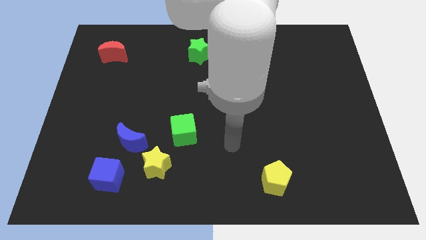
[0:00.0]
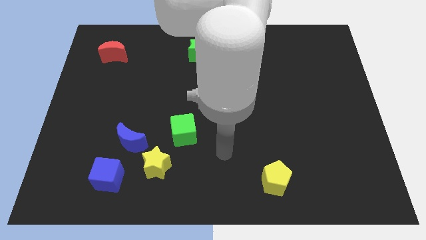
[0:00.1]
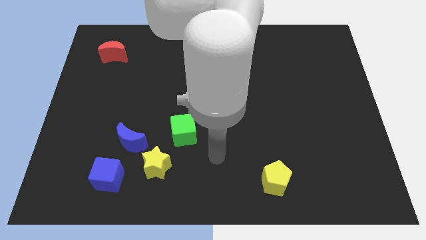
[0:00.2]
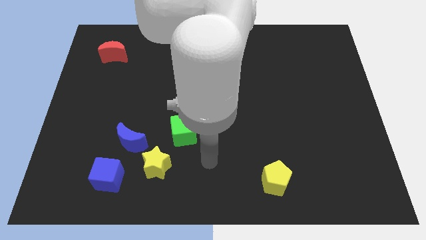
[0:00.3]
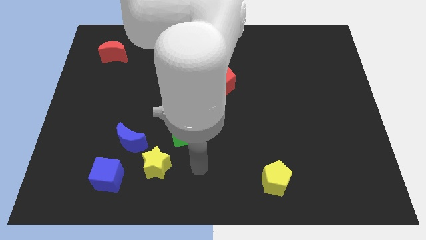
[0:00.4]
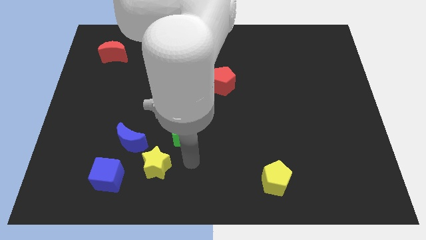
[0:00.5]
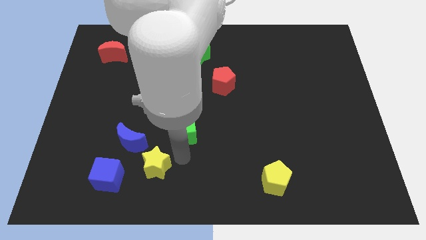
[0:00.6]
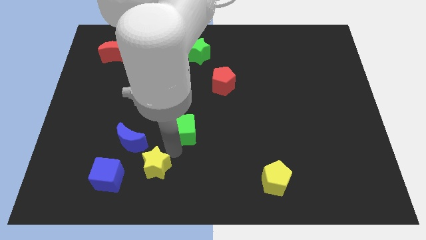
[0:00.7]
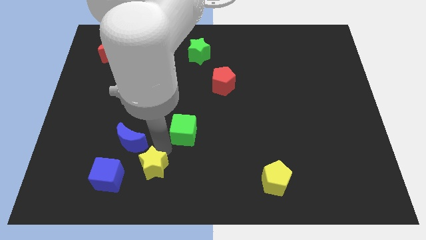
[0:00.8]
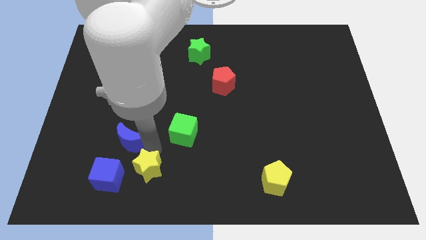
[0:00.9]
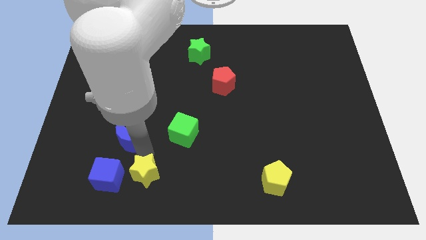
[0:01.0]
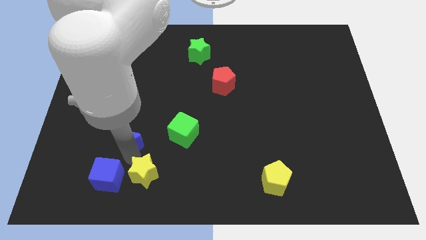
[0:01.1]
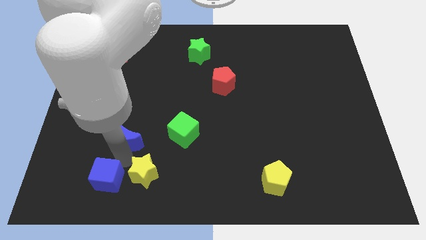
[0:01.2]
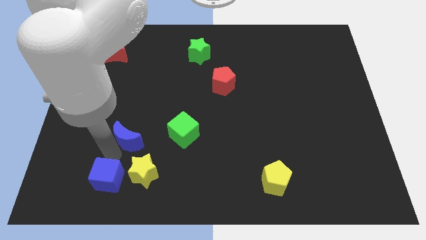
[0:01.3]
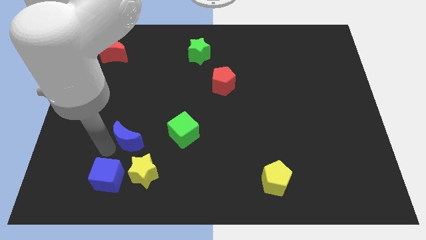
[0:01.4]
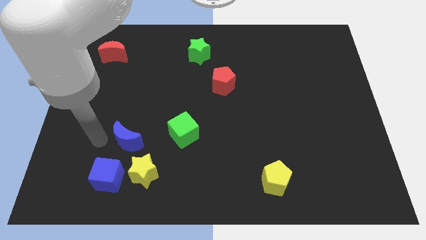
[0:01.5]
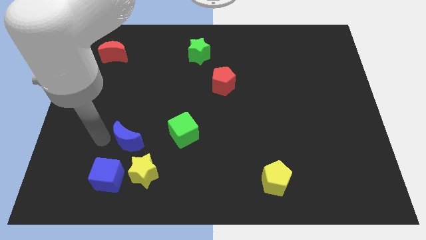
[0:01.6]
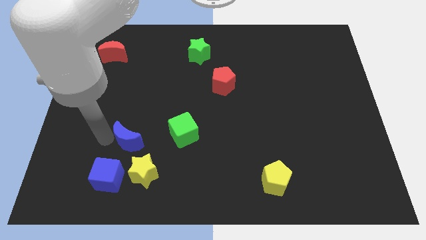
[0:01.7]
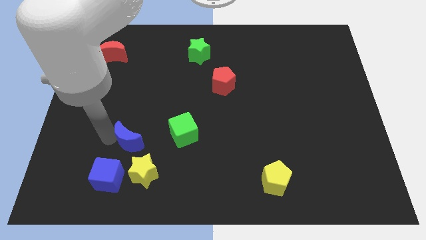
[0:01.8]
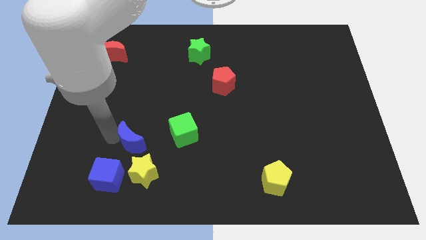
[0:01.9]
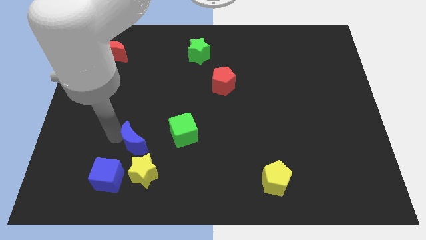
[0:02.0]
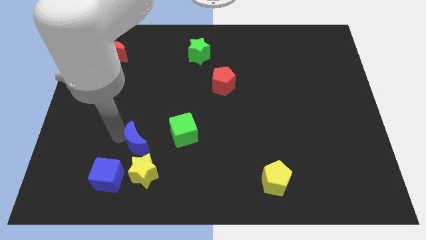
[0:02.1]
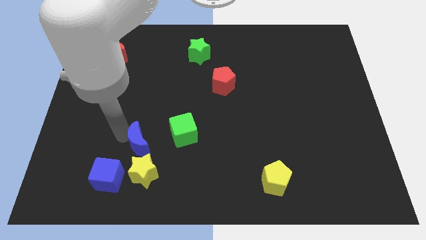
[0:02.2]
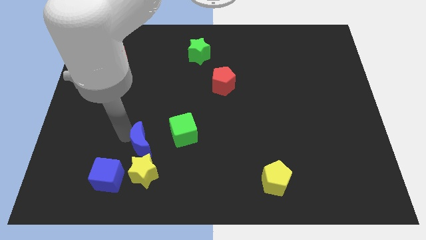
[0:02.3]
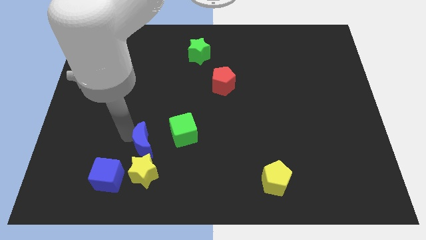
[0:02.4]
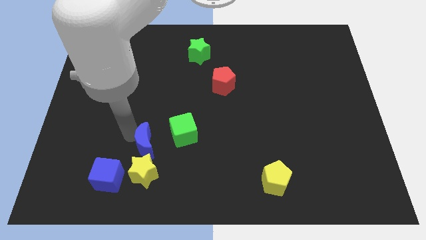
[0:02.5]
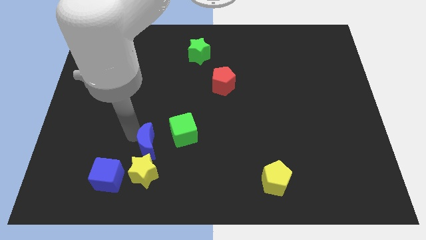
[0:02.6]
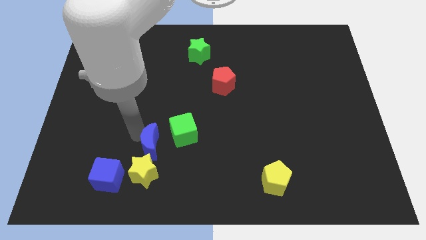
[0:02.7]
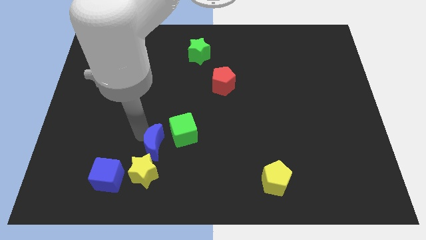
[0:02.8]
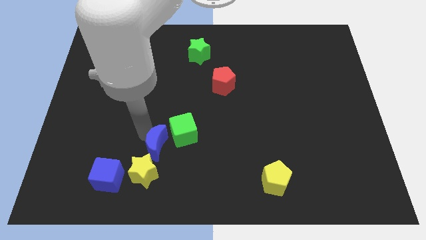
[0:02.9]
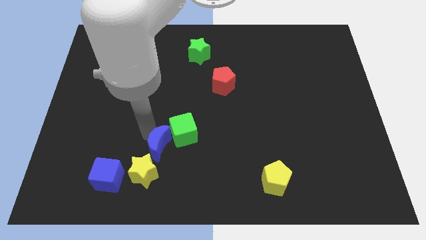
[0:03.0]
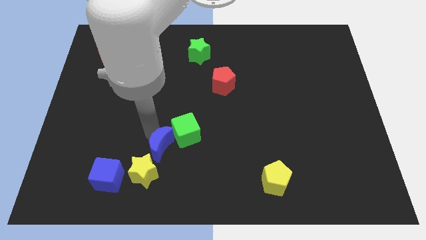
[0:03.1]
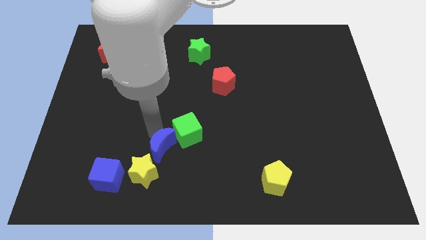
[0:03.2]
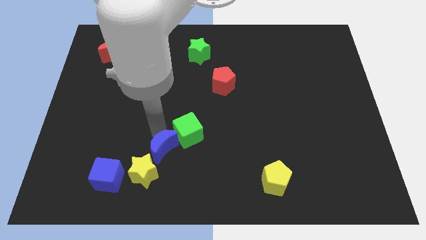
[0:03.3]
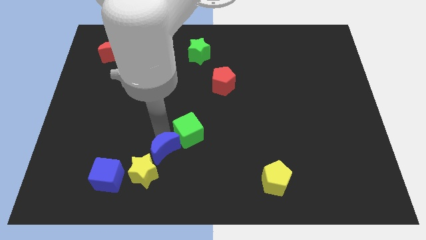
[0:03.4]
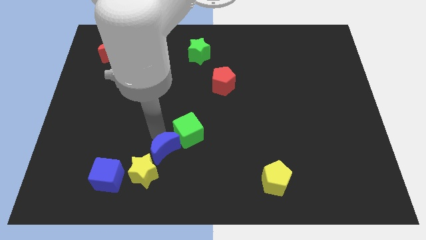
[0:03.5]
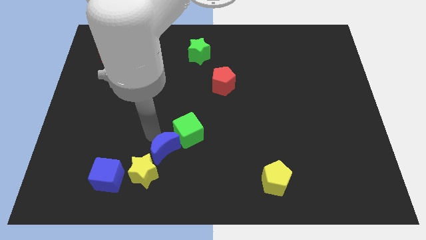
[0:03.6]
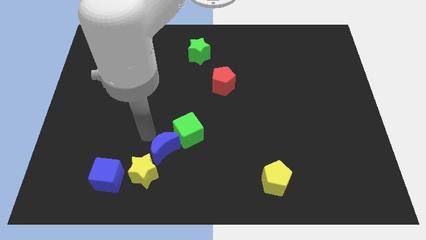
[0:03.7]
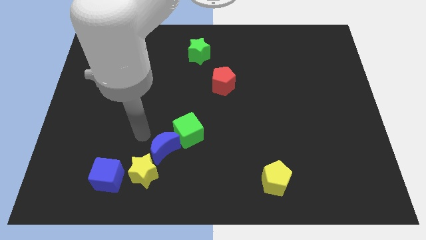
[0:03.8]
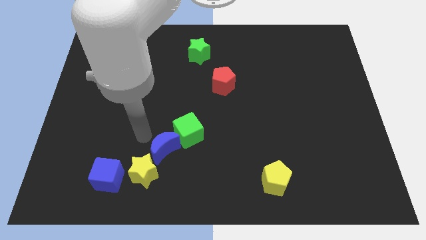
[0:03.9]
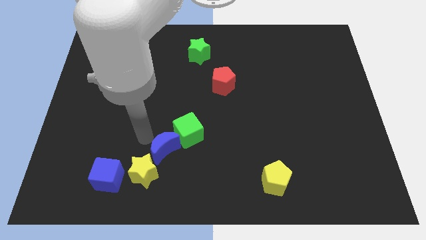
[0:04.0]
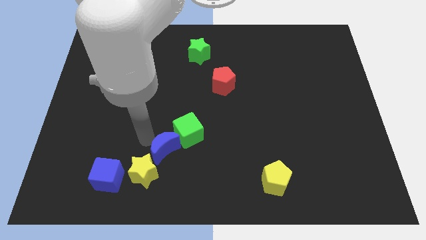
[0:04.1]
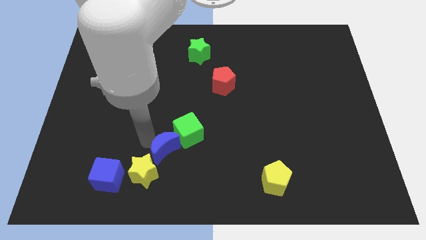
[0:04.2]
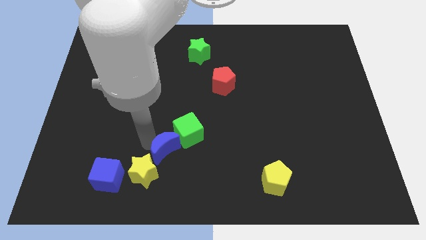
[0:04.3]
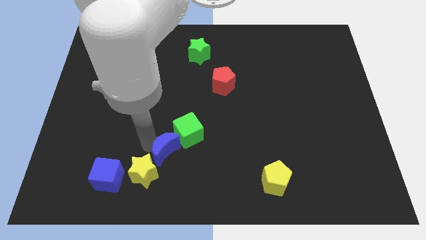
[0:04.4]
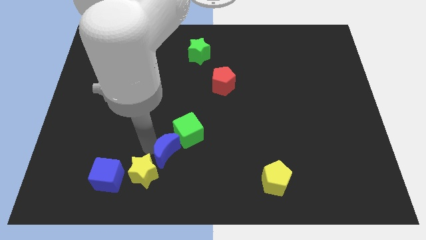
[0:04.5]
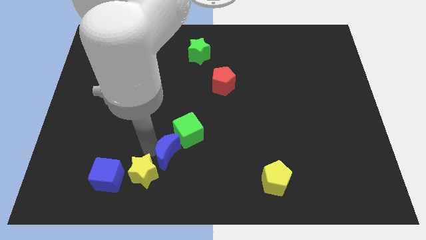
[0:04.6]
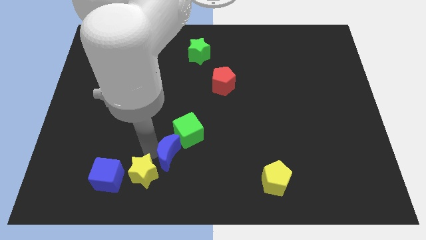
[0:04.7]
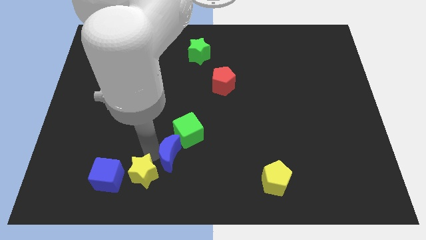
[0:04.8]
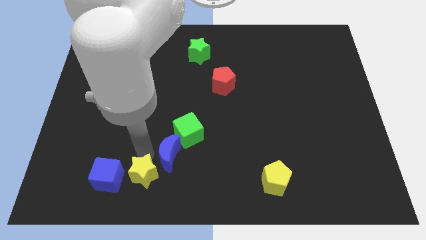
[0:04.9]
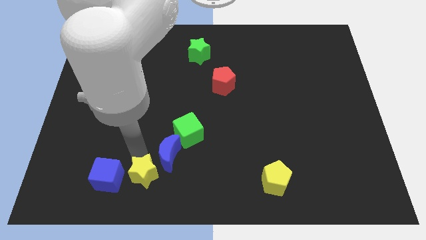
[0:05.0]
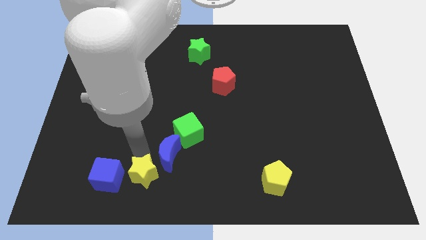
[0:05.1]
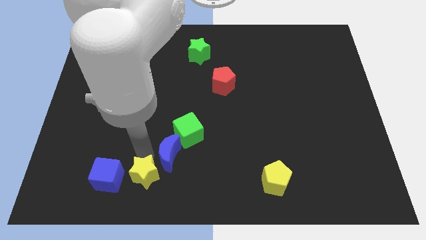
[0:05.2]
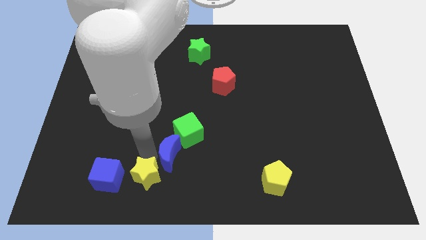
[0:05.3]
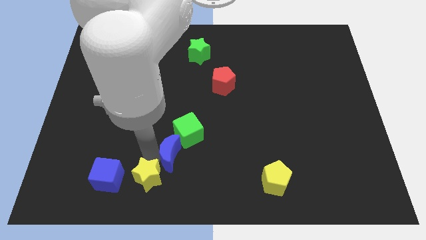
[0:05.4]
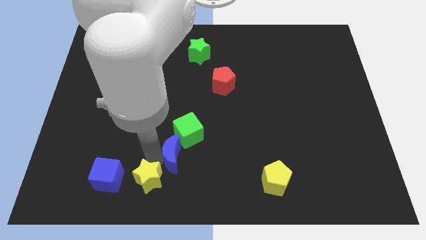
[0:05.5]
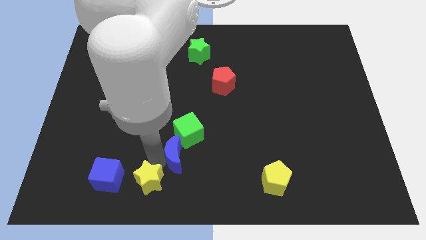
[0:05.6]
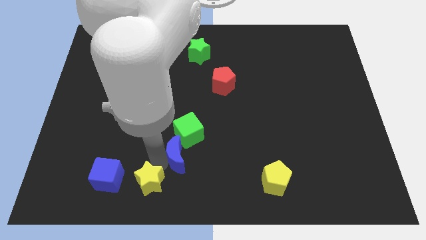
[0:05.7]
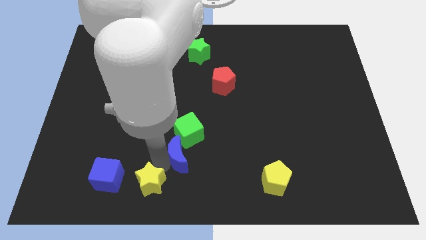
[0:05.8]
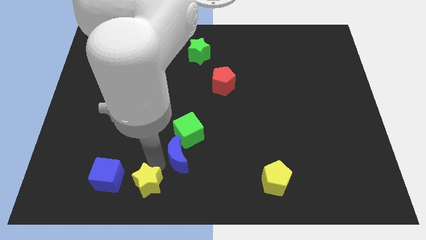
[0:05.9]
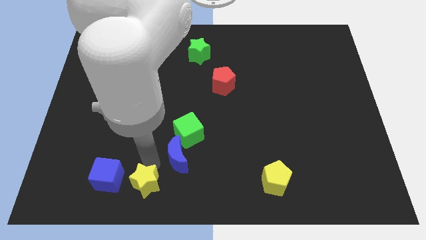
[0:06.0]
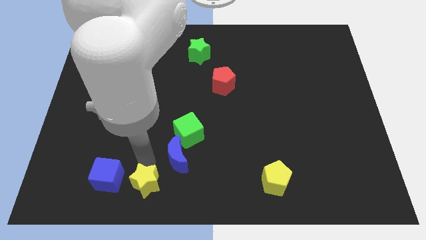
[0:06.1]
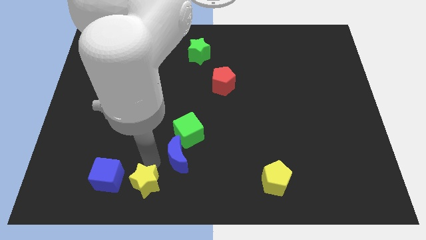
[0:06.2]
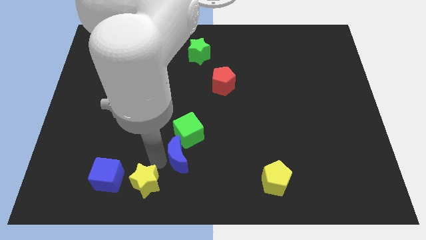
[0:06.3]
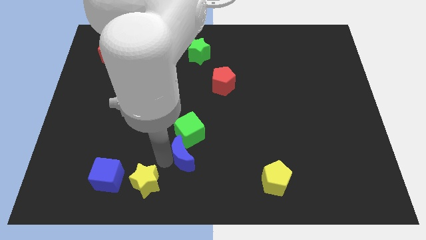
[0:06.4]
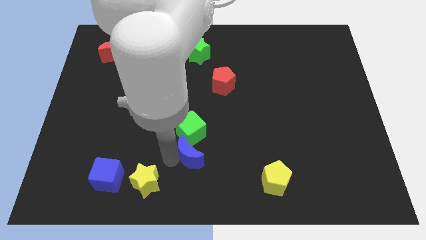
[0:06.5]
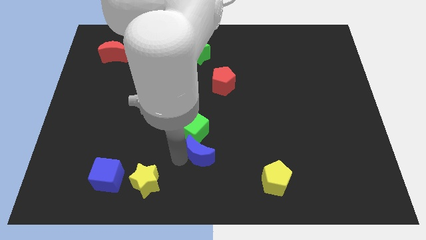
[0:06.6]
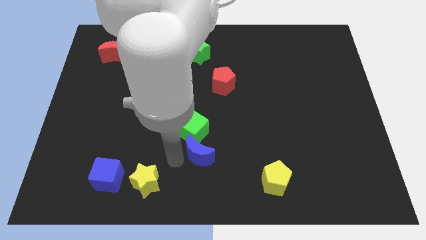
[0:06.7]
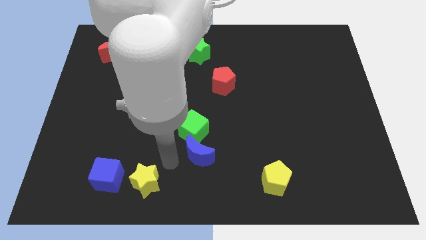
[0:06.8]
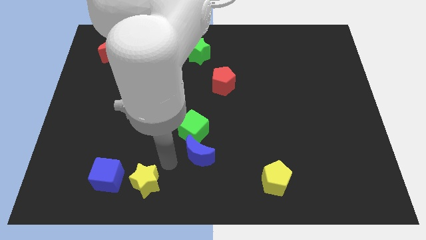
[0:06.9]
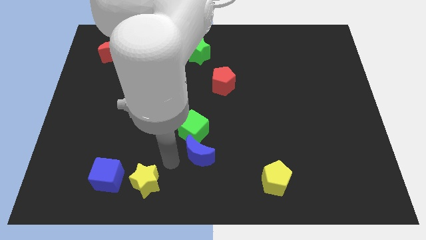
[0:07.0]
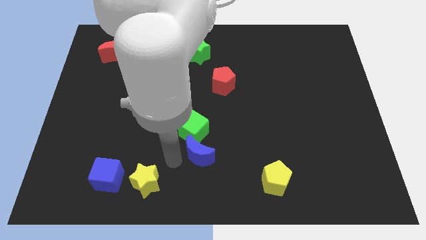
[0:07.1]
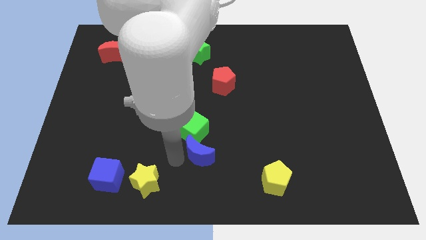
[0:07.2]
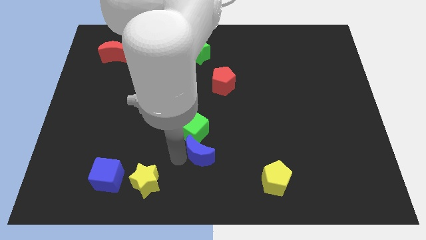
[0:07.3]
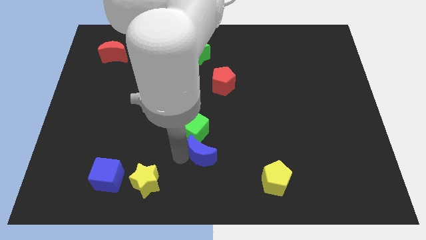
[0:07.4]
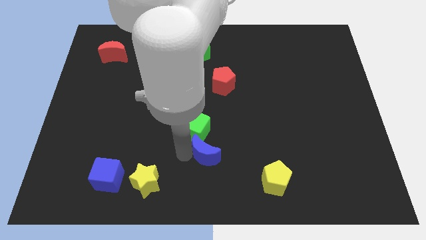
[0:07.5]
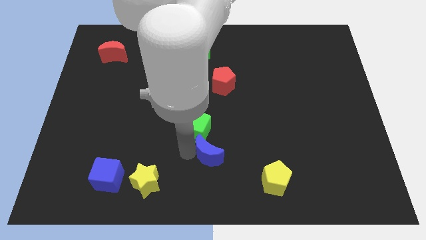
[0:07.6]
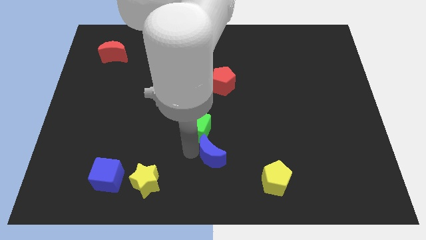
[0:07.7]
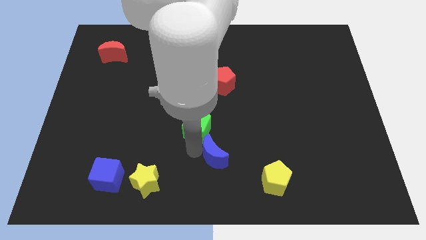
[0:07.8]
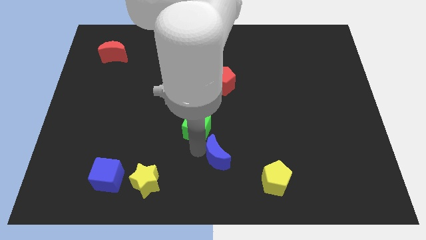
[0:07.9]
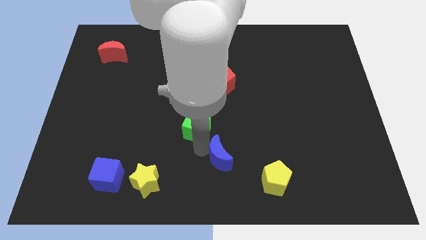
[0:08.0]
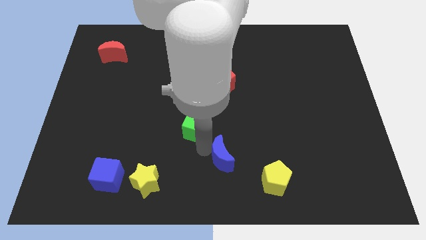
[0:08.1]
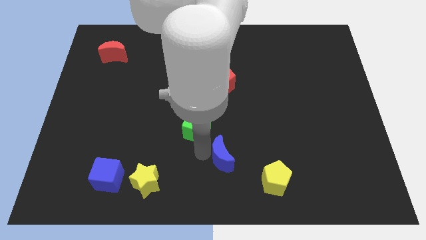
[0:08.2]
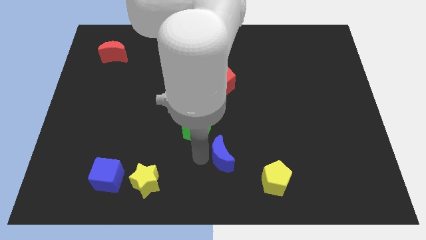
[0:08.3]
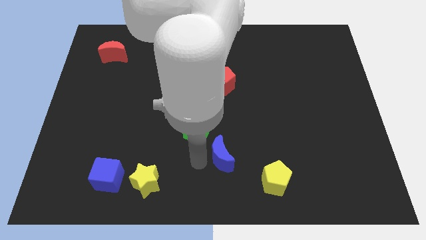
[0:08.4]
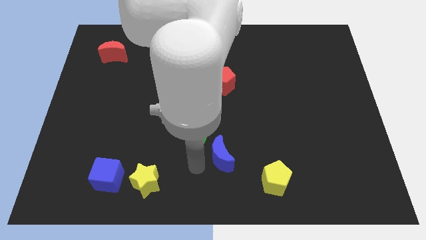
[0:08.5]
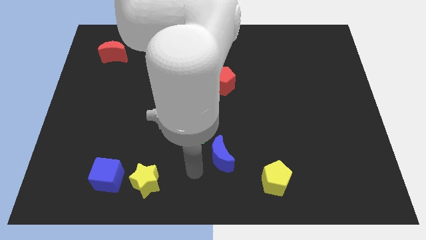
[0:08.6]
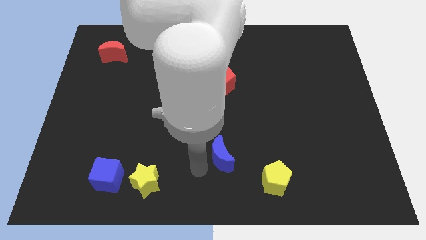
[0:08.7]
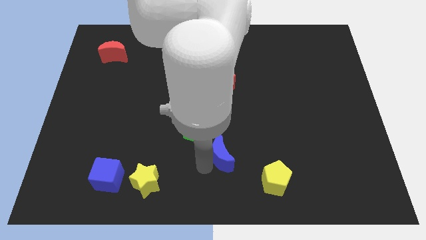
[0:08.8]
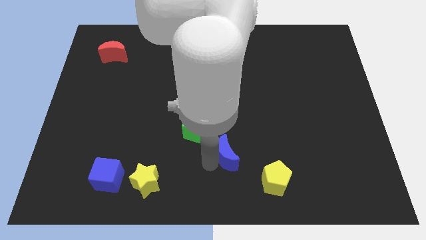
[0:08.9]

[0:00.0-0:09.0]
slide the blue moon right
